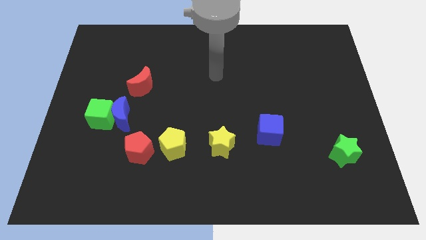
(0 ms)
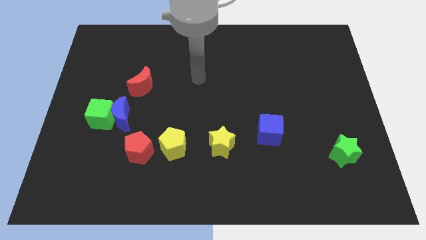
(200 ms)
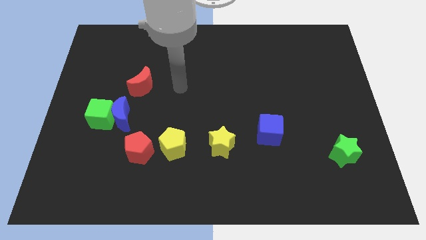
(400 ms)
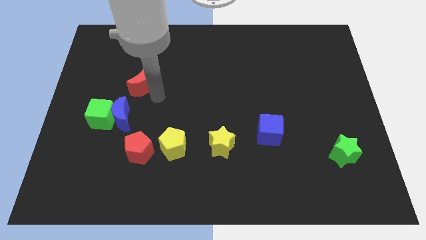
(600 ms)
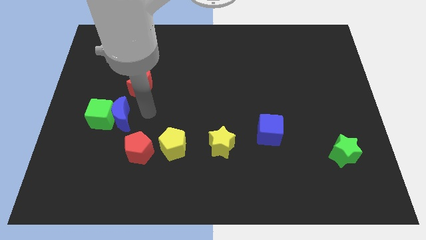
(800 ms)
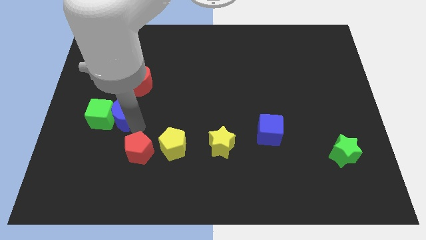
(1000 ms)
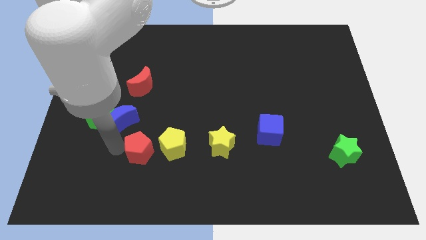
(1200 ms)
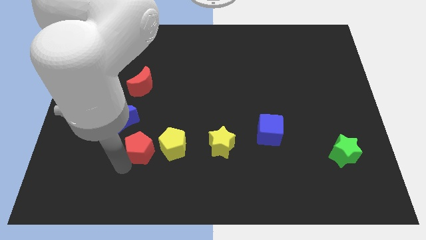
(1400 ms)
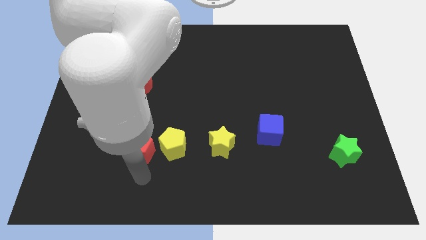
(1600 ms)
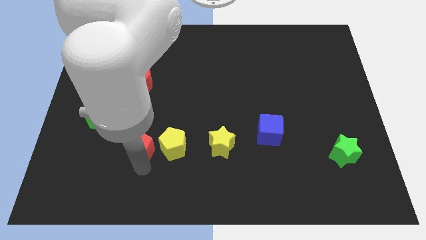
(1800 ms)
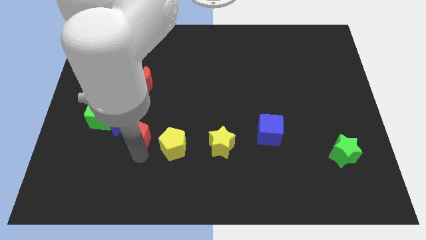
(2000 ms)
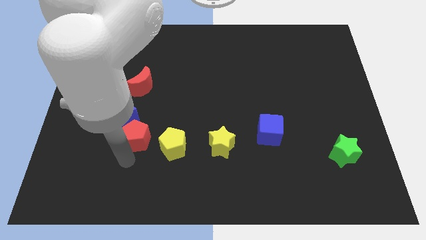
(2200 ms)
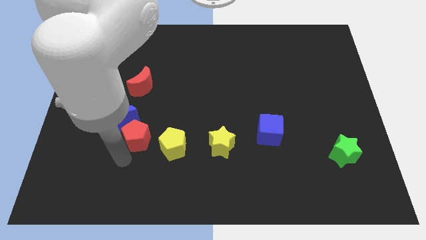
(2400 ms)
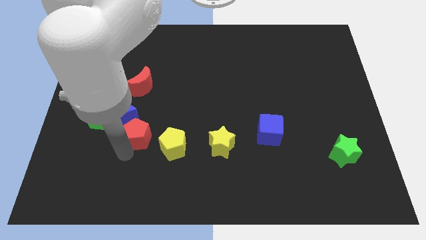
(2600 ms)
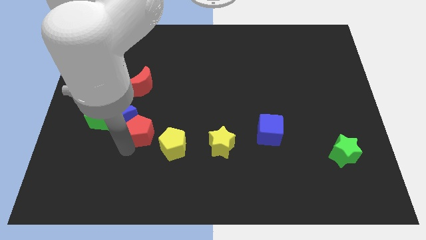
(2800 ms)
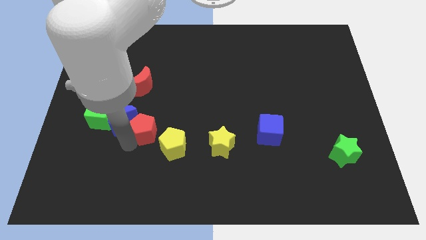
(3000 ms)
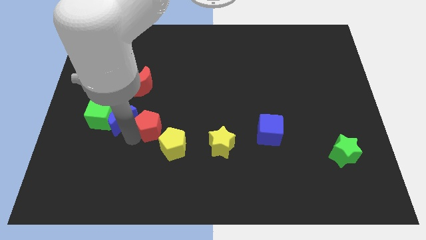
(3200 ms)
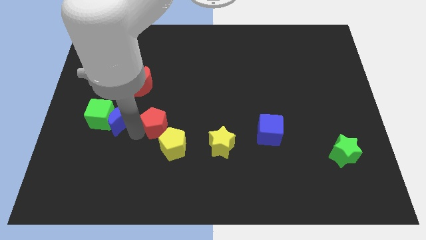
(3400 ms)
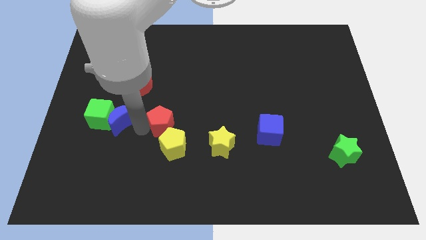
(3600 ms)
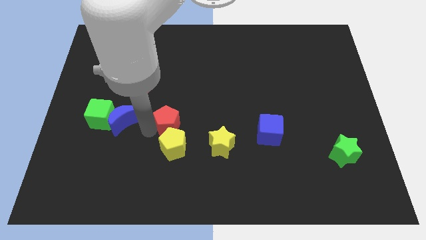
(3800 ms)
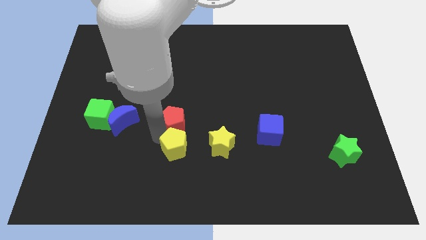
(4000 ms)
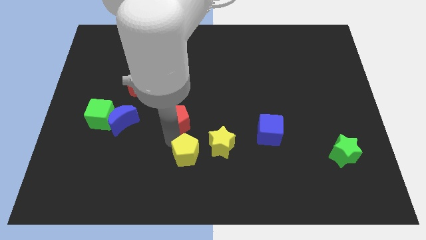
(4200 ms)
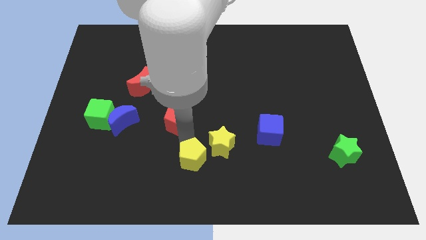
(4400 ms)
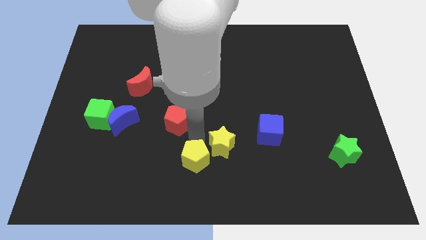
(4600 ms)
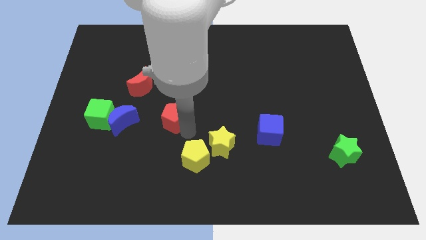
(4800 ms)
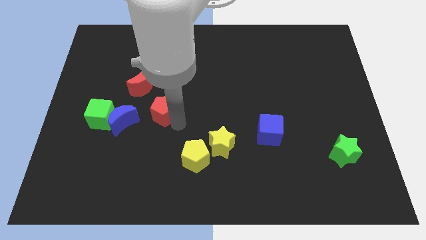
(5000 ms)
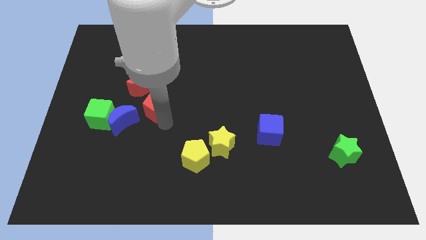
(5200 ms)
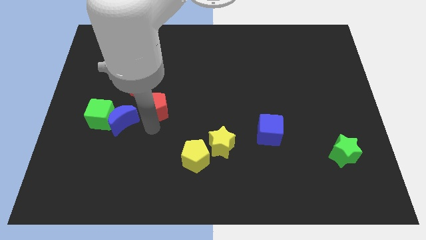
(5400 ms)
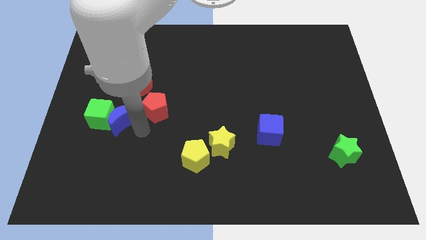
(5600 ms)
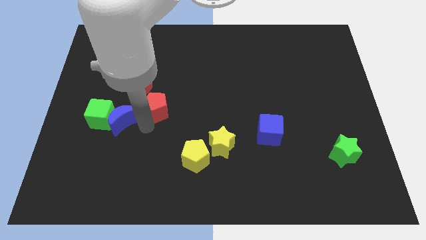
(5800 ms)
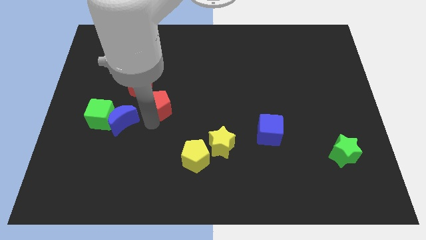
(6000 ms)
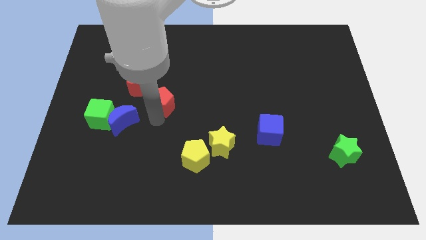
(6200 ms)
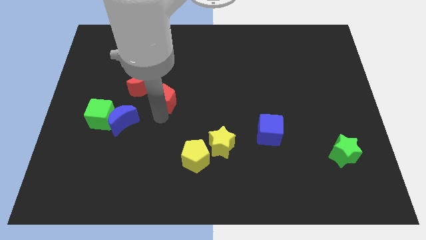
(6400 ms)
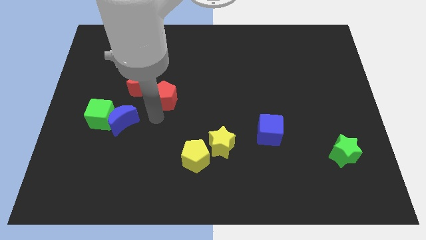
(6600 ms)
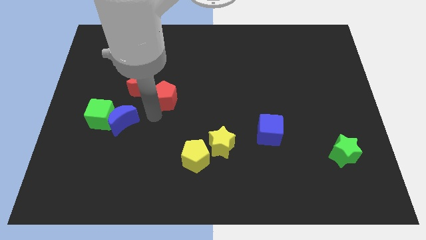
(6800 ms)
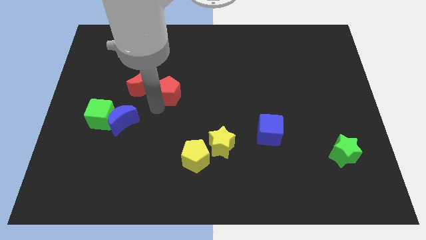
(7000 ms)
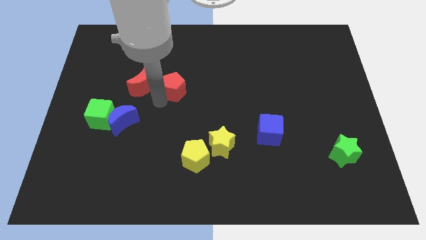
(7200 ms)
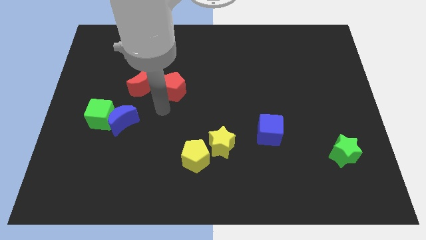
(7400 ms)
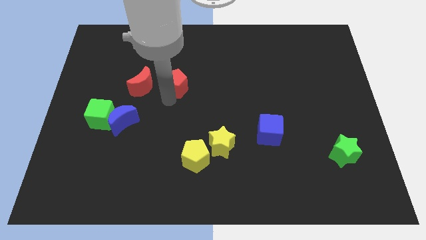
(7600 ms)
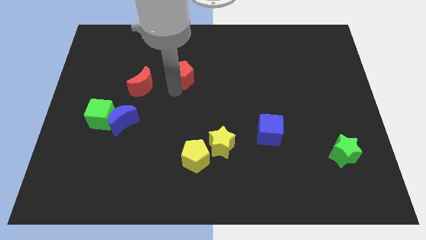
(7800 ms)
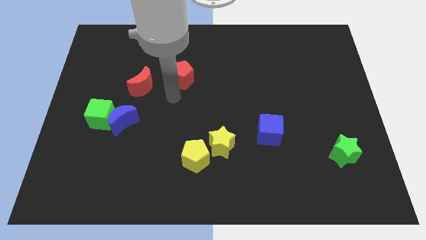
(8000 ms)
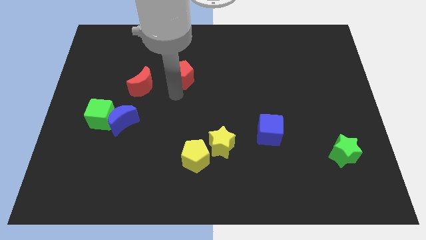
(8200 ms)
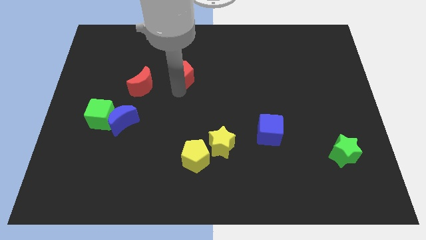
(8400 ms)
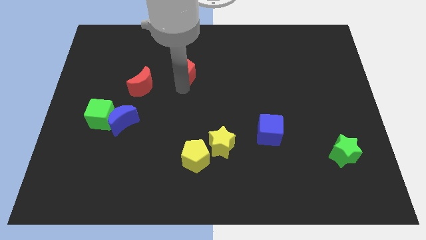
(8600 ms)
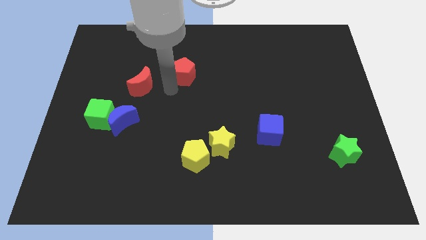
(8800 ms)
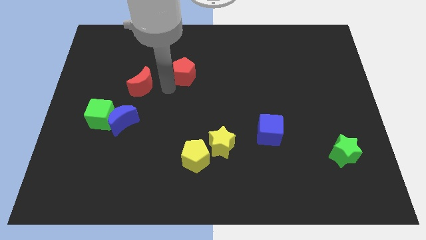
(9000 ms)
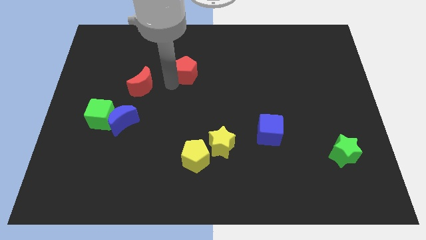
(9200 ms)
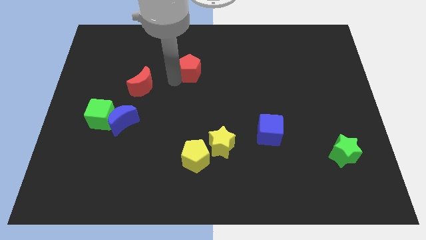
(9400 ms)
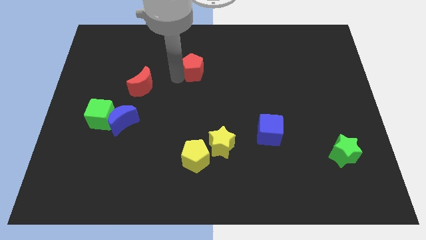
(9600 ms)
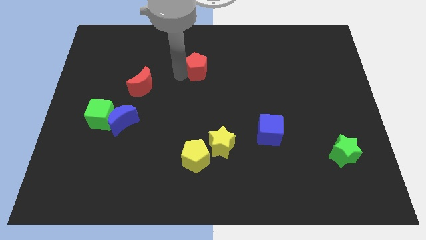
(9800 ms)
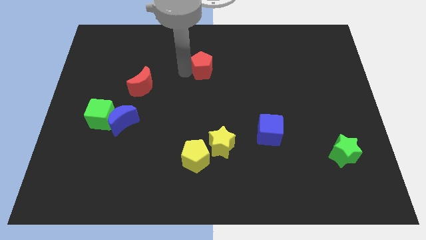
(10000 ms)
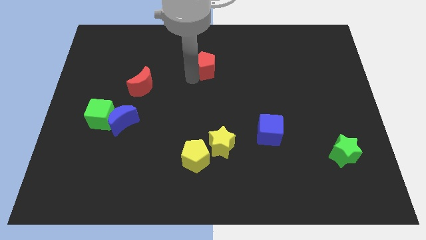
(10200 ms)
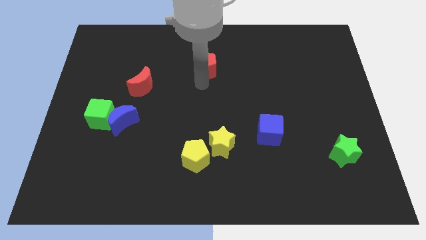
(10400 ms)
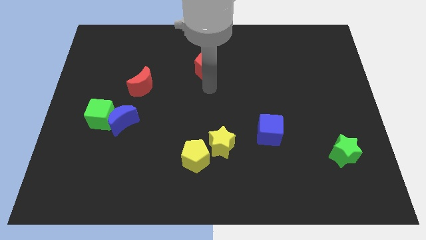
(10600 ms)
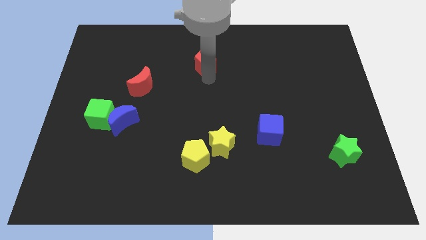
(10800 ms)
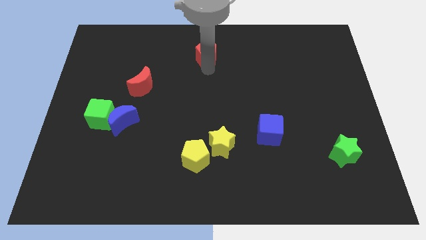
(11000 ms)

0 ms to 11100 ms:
slide the red pentagon to the top

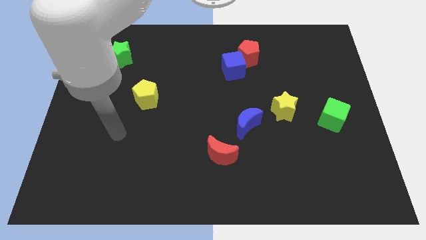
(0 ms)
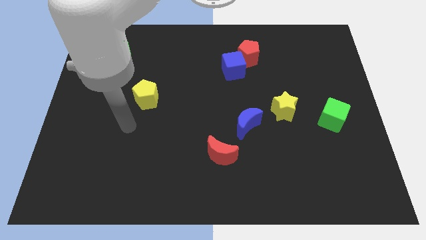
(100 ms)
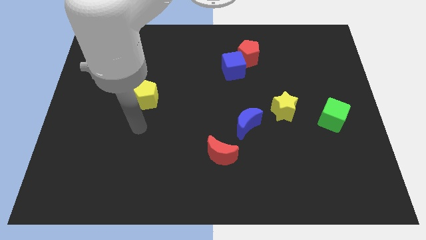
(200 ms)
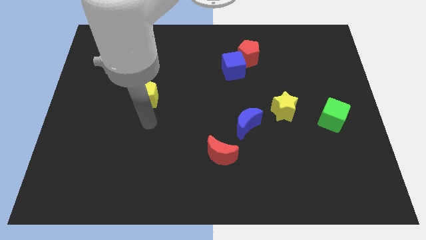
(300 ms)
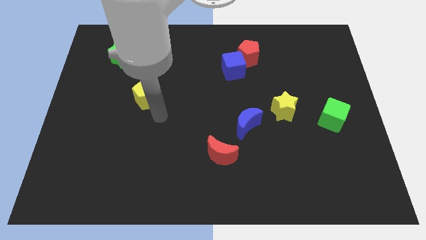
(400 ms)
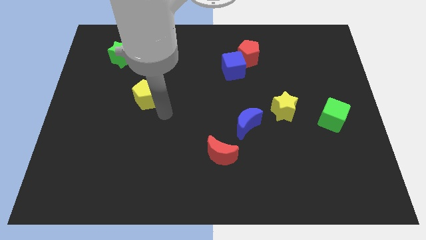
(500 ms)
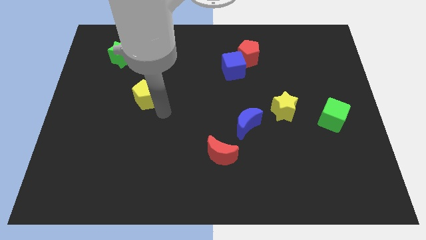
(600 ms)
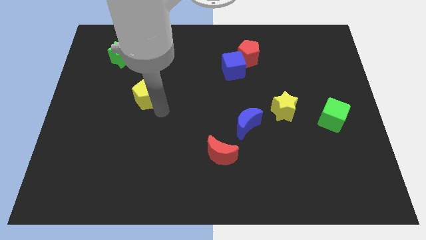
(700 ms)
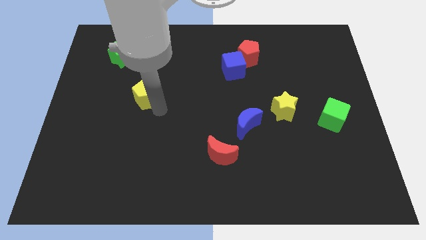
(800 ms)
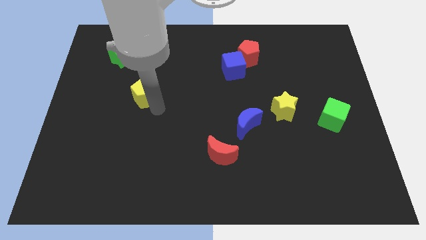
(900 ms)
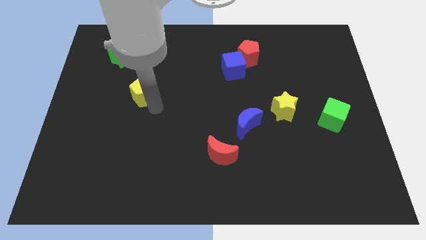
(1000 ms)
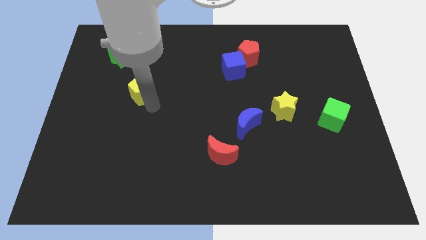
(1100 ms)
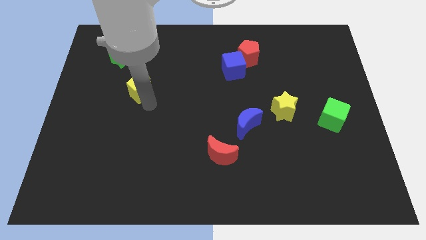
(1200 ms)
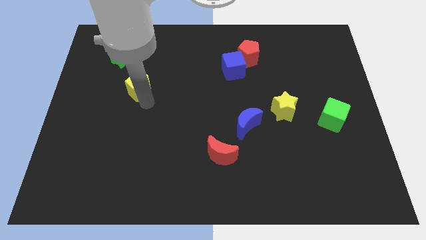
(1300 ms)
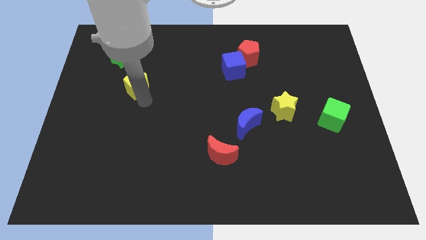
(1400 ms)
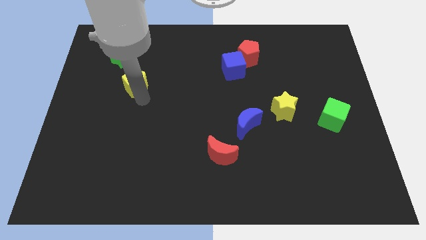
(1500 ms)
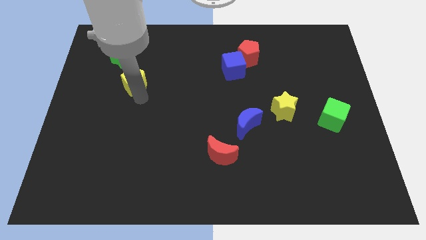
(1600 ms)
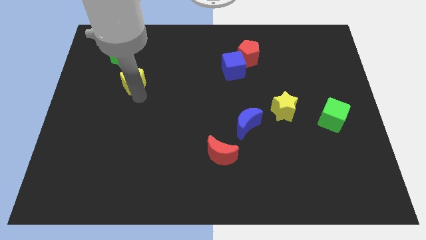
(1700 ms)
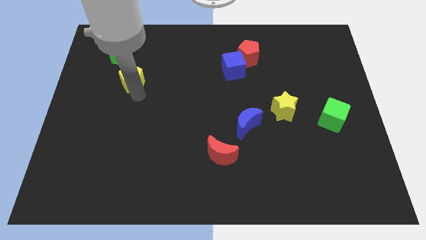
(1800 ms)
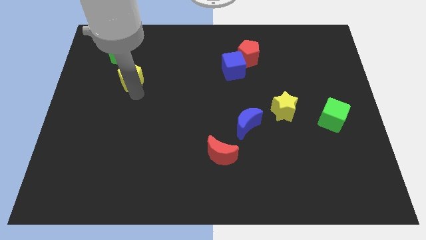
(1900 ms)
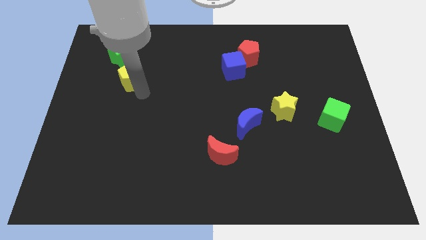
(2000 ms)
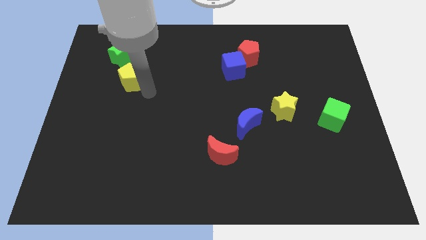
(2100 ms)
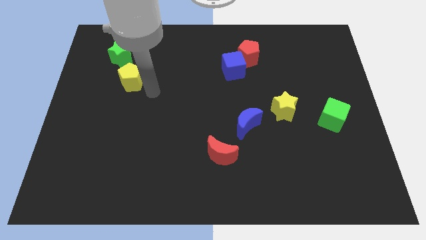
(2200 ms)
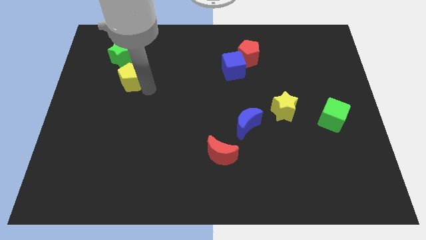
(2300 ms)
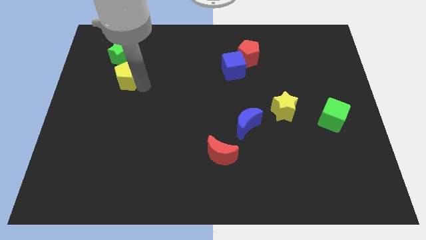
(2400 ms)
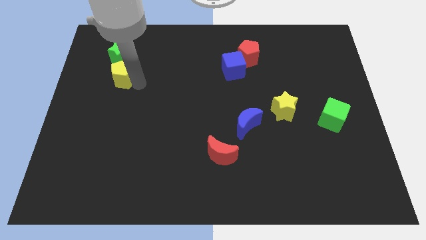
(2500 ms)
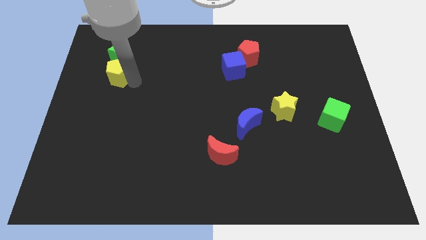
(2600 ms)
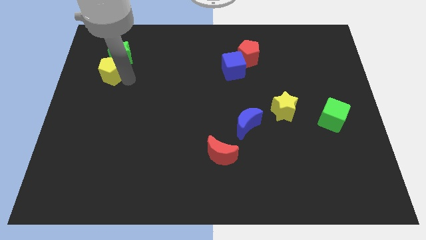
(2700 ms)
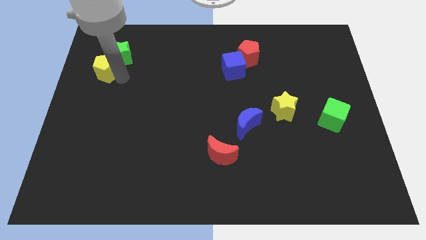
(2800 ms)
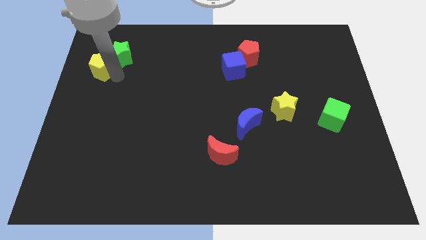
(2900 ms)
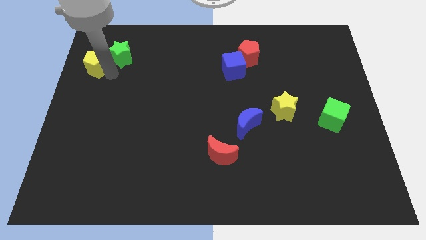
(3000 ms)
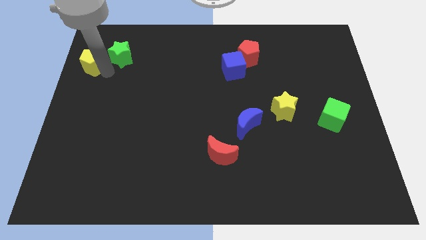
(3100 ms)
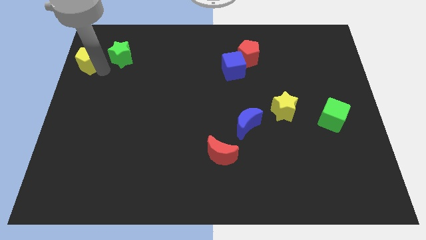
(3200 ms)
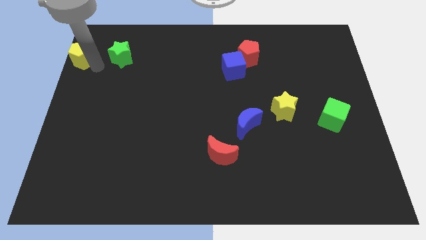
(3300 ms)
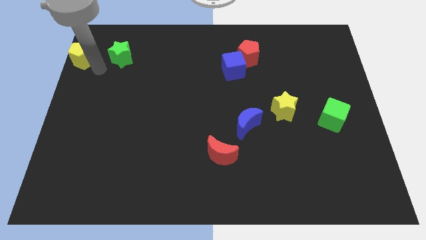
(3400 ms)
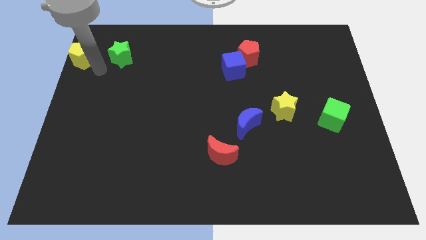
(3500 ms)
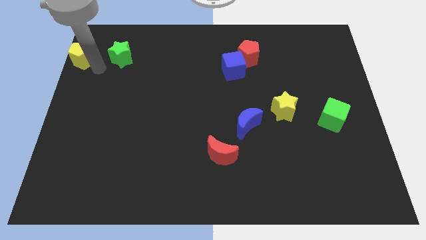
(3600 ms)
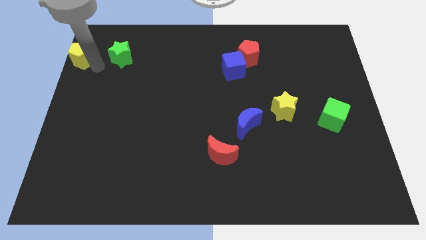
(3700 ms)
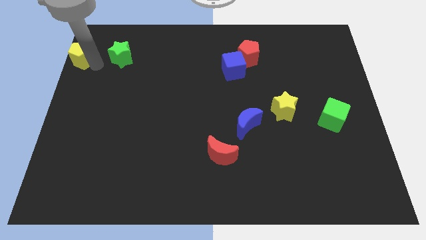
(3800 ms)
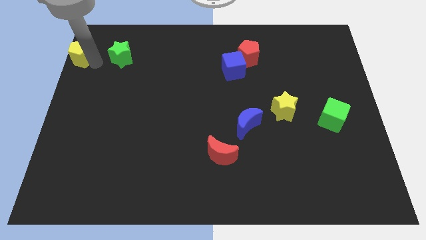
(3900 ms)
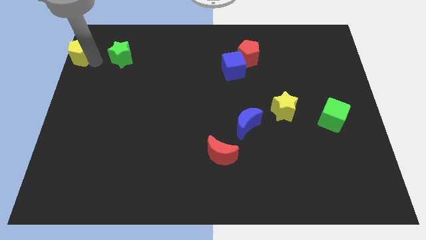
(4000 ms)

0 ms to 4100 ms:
move the yellow pentagon to the top left of the board
